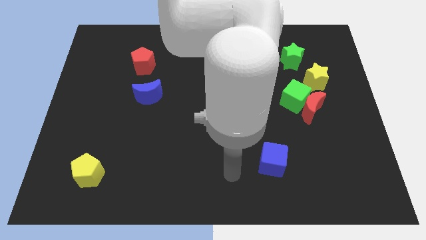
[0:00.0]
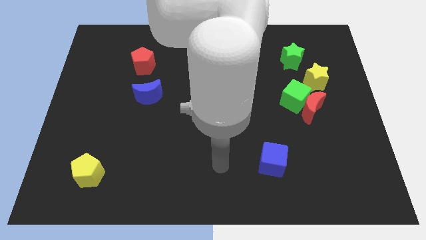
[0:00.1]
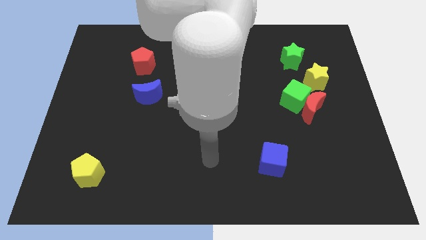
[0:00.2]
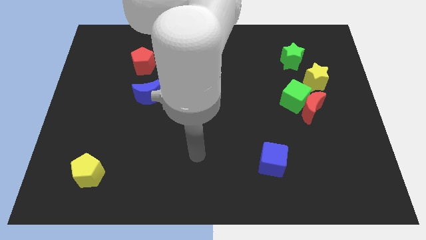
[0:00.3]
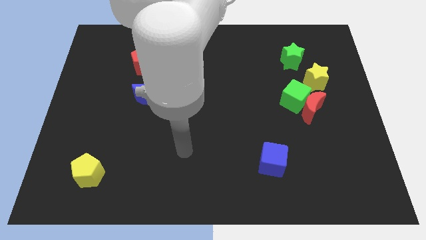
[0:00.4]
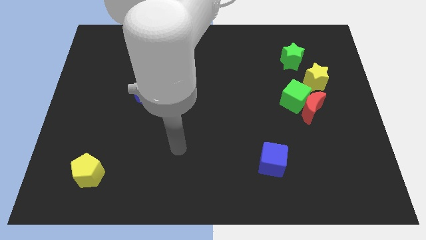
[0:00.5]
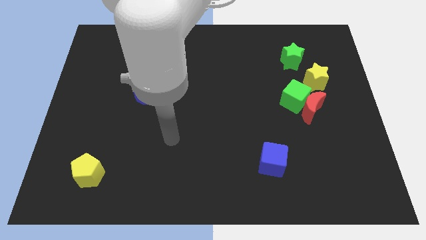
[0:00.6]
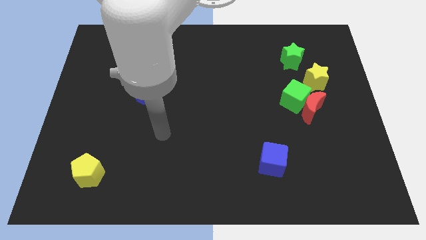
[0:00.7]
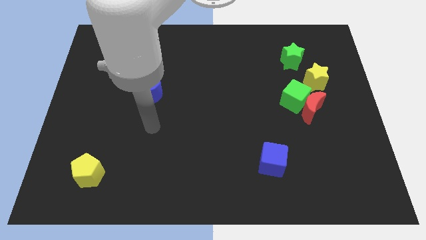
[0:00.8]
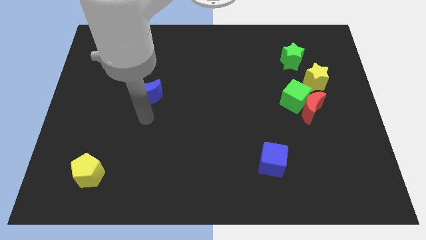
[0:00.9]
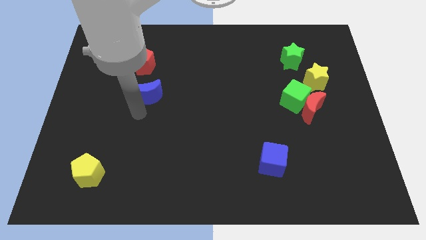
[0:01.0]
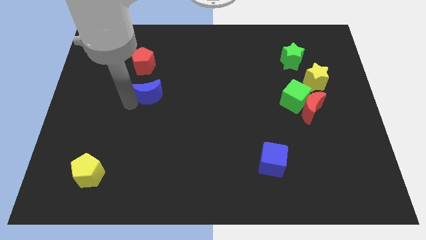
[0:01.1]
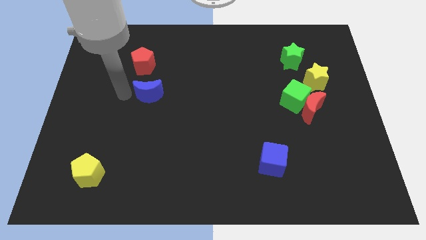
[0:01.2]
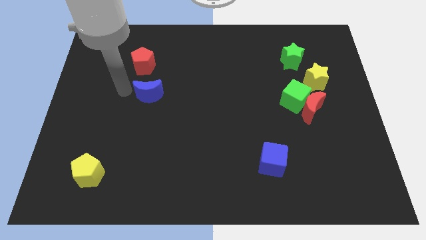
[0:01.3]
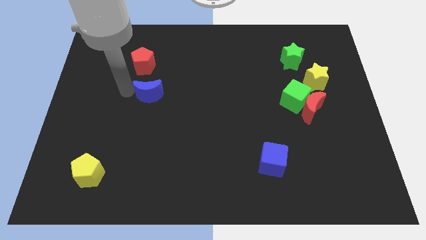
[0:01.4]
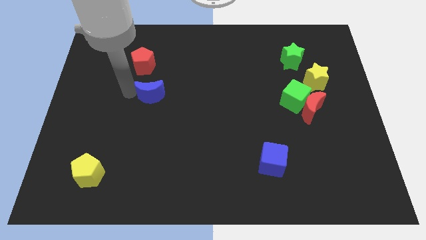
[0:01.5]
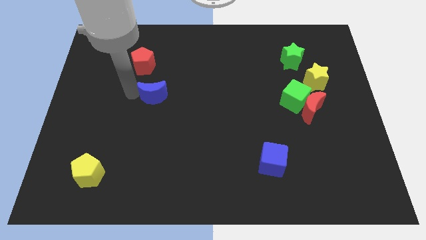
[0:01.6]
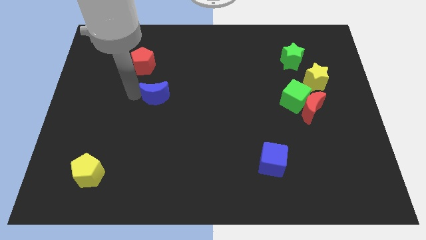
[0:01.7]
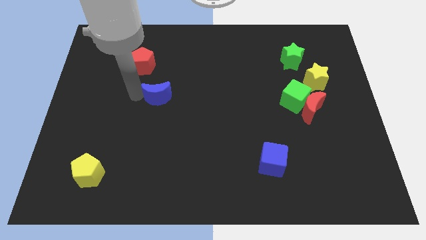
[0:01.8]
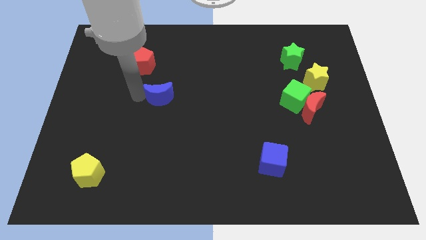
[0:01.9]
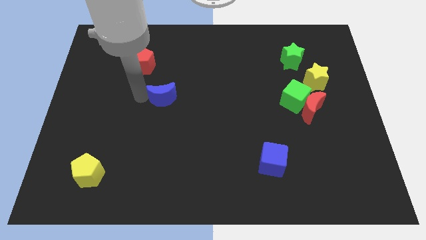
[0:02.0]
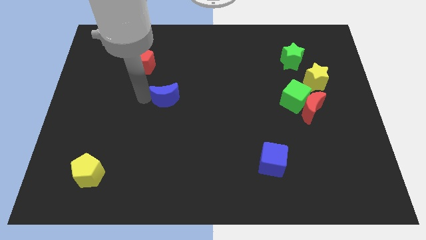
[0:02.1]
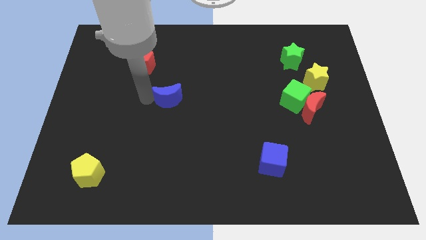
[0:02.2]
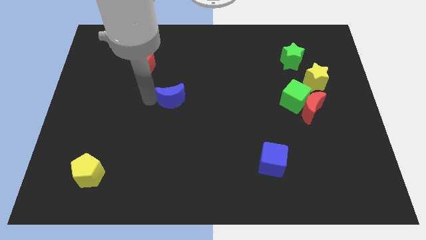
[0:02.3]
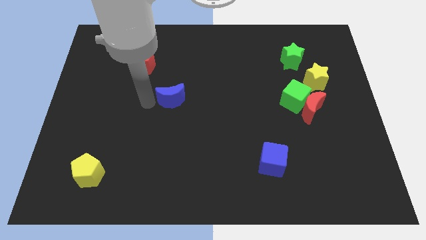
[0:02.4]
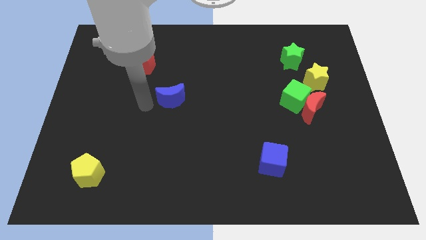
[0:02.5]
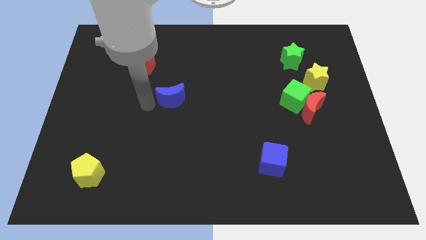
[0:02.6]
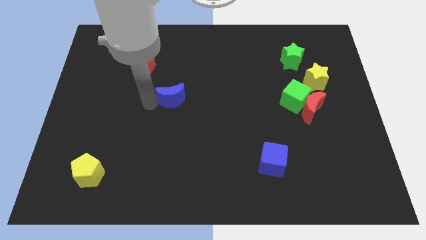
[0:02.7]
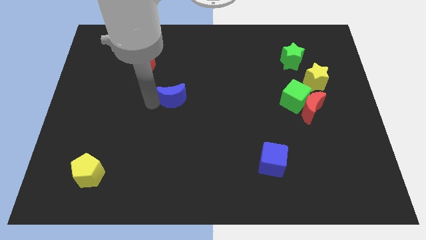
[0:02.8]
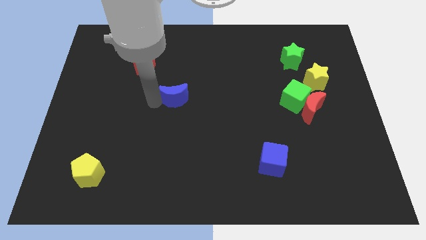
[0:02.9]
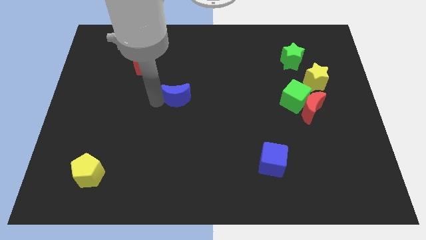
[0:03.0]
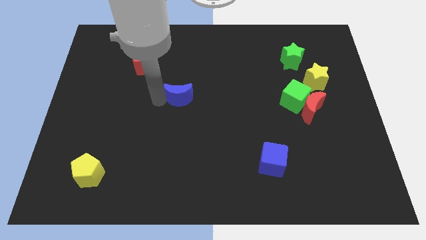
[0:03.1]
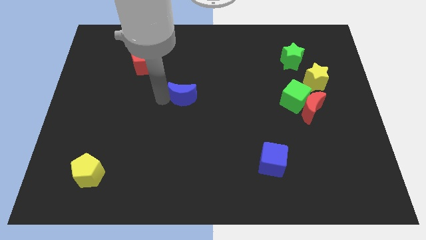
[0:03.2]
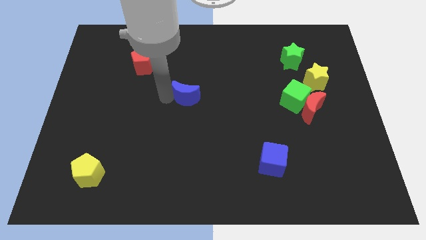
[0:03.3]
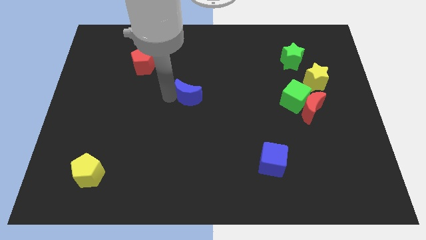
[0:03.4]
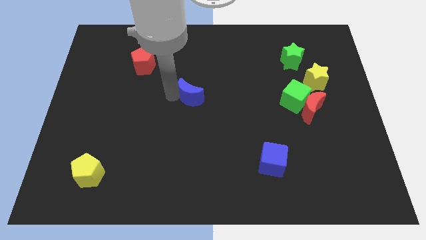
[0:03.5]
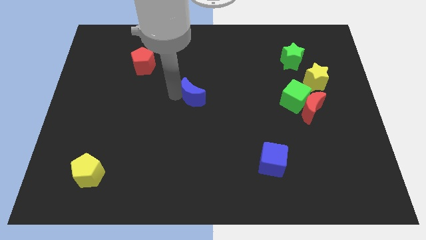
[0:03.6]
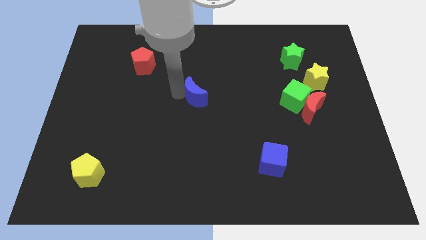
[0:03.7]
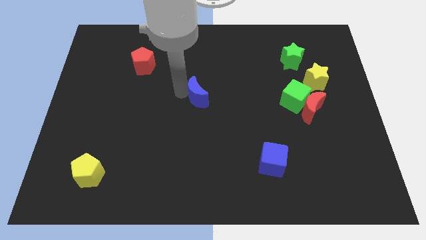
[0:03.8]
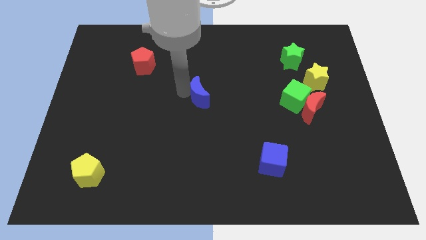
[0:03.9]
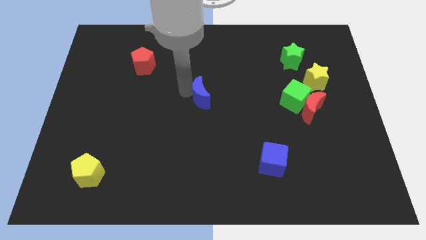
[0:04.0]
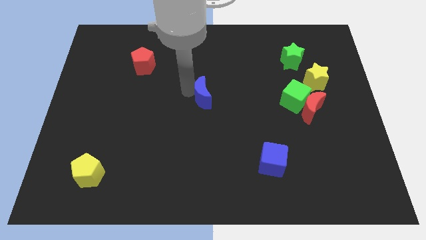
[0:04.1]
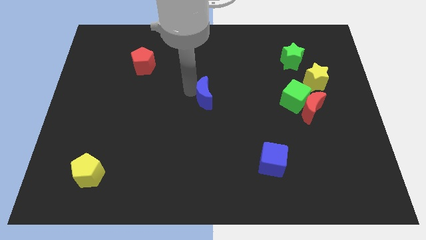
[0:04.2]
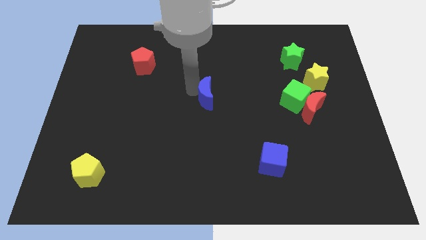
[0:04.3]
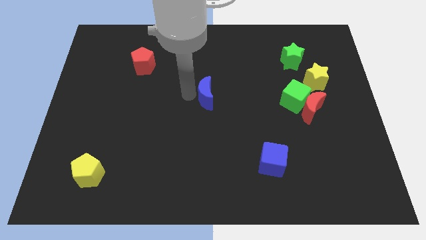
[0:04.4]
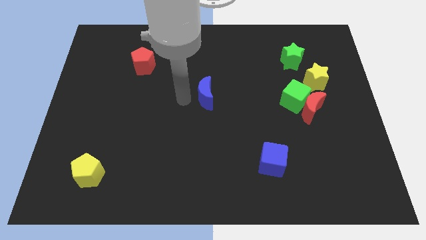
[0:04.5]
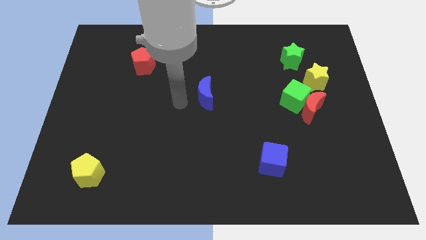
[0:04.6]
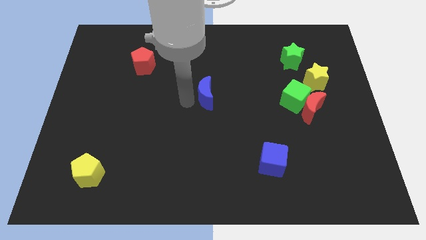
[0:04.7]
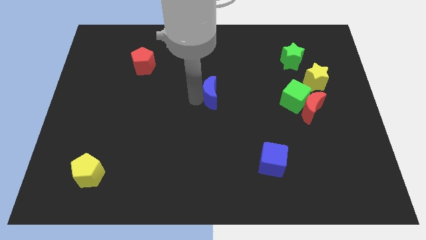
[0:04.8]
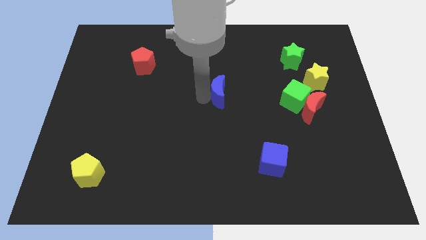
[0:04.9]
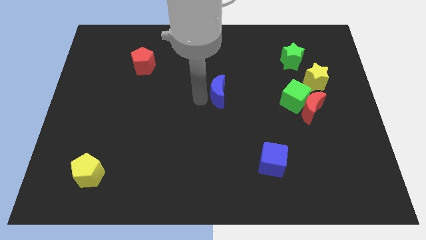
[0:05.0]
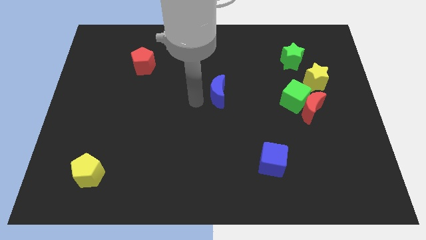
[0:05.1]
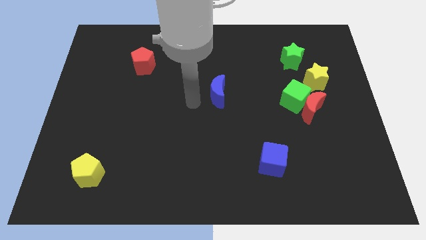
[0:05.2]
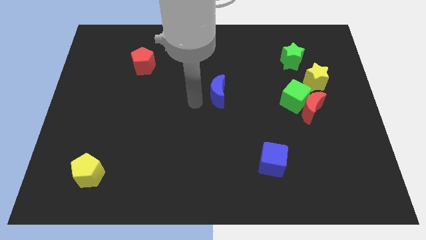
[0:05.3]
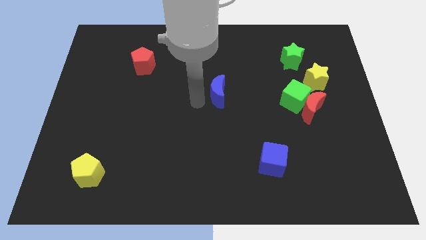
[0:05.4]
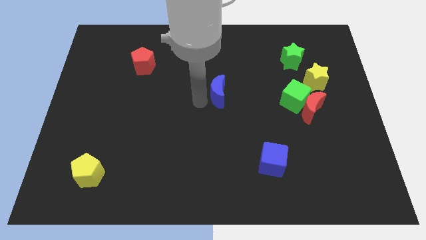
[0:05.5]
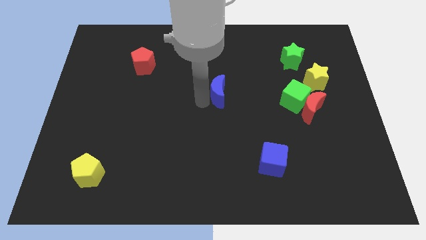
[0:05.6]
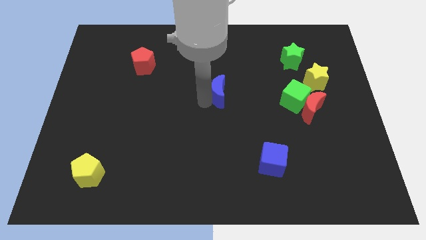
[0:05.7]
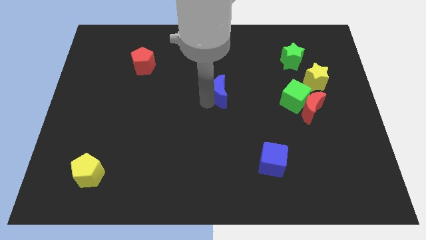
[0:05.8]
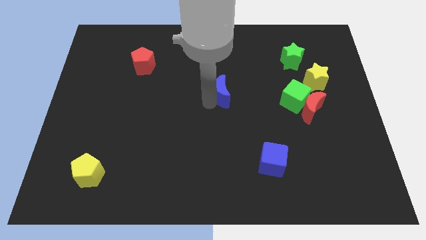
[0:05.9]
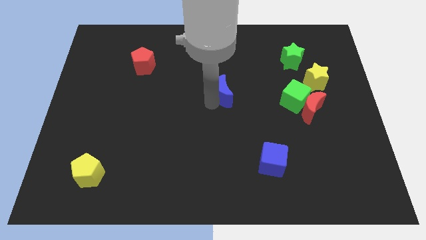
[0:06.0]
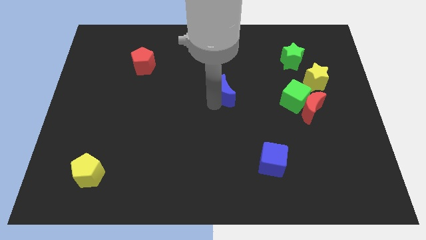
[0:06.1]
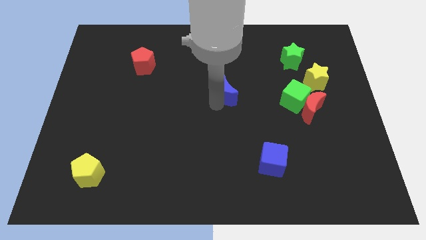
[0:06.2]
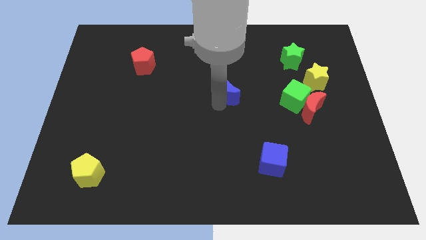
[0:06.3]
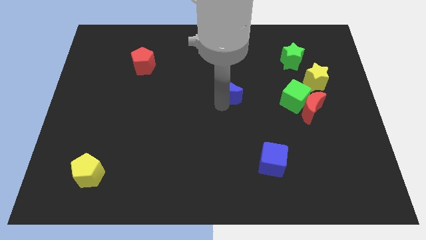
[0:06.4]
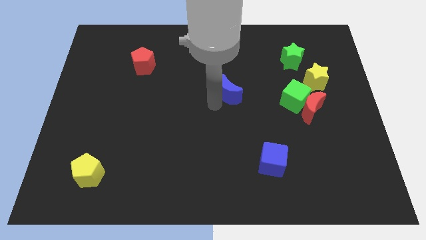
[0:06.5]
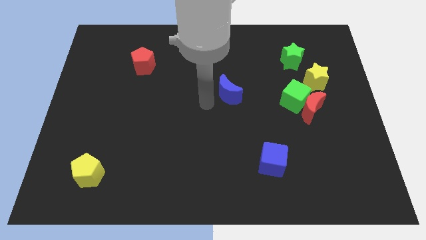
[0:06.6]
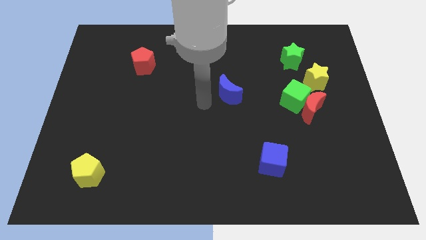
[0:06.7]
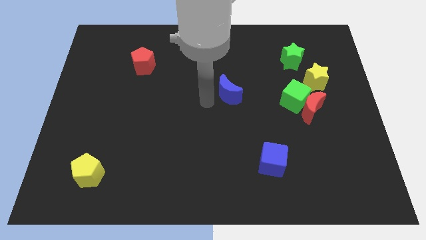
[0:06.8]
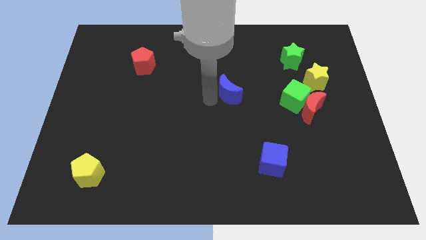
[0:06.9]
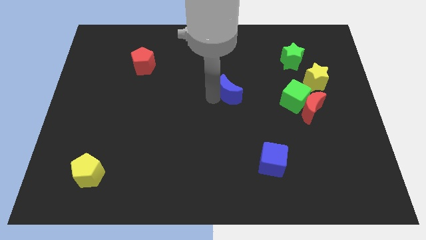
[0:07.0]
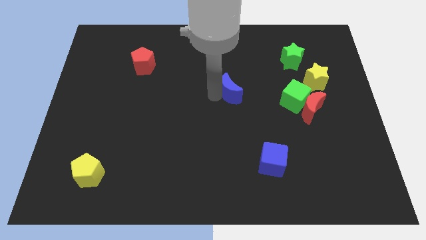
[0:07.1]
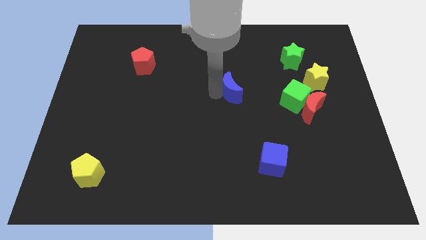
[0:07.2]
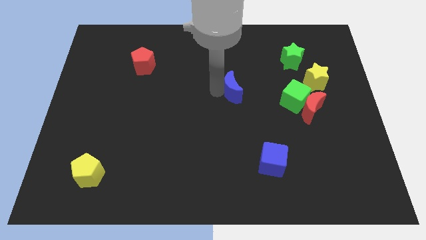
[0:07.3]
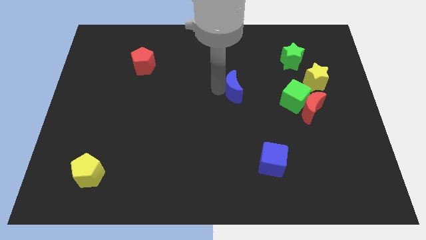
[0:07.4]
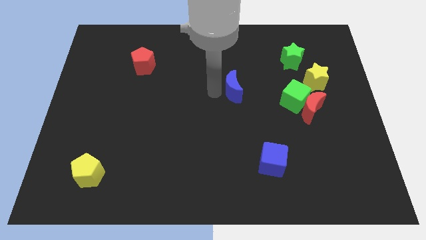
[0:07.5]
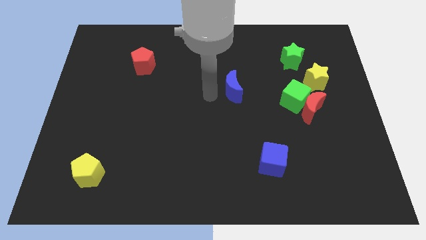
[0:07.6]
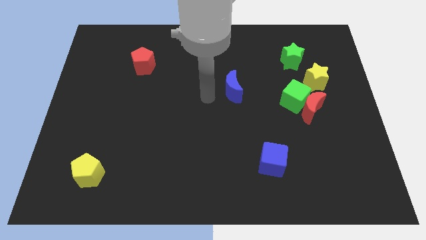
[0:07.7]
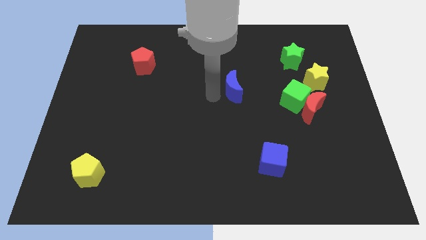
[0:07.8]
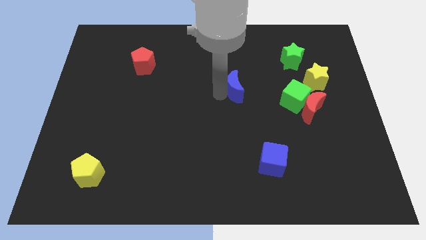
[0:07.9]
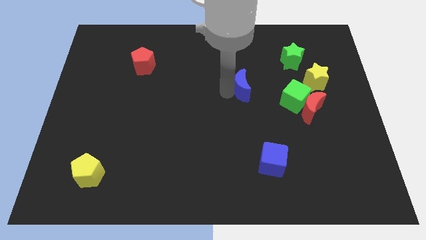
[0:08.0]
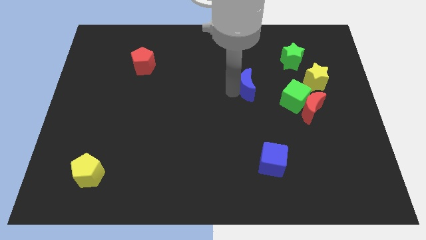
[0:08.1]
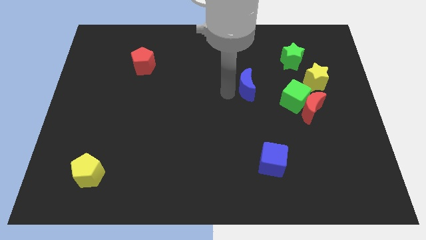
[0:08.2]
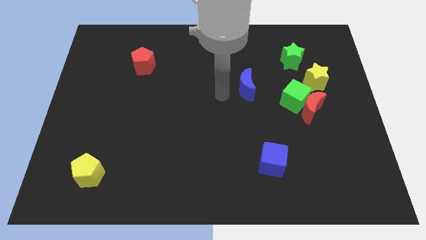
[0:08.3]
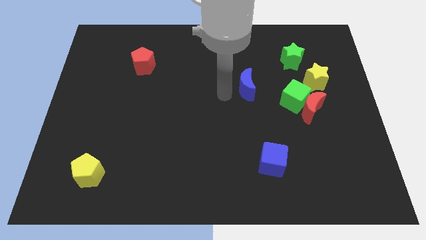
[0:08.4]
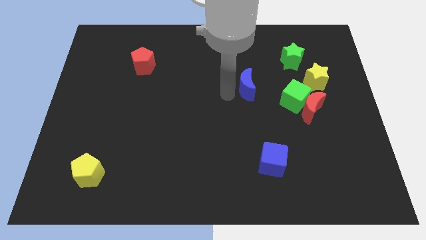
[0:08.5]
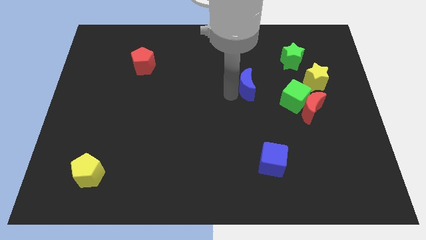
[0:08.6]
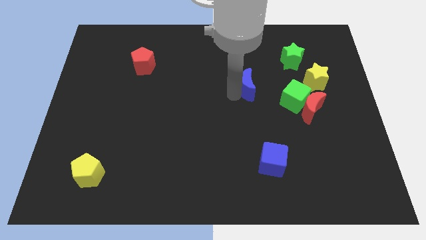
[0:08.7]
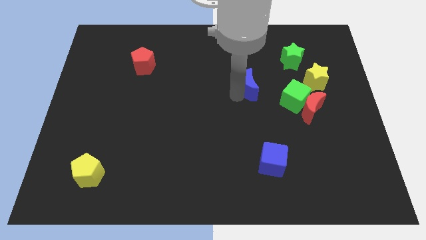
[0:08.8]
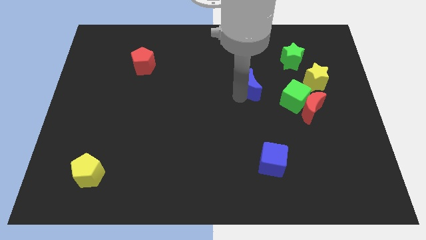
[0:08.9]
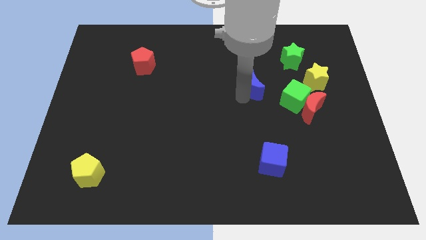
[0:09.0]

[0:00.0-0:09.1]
push the blue moon to the left of the yellow star
